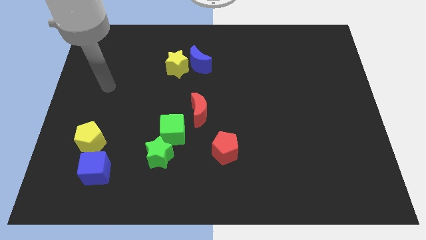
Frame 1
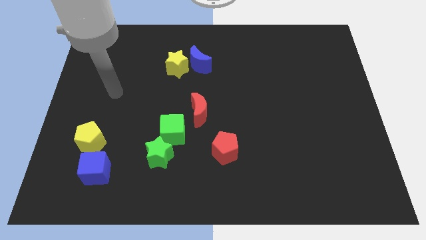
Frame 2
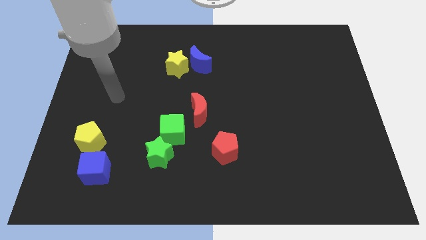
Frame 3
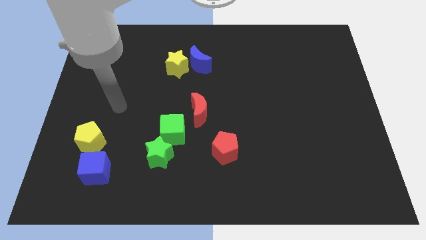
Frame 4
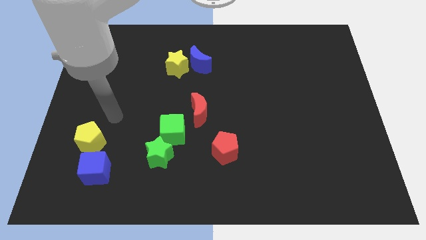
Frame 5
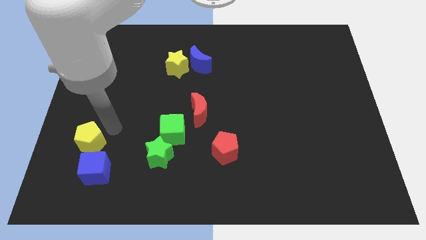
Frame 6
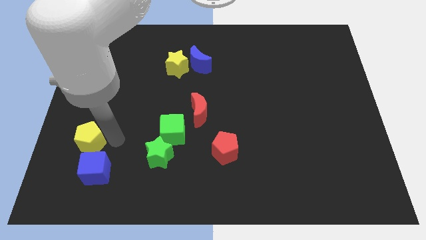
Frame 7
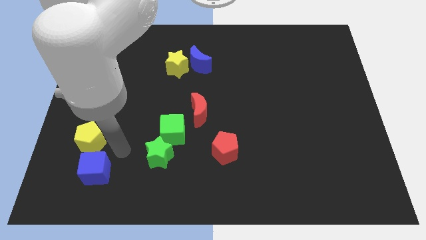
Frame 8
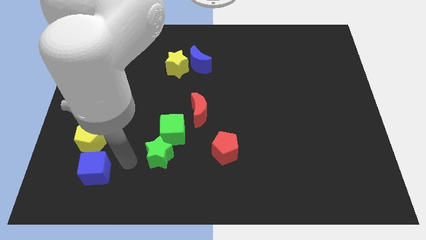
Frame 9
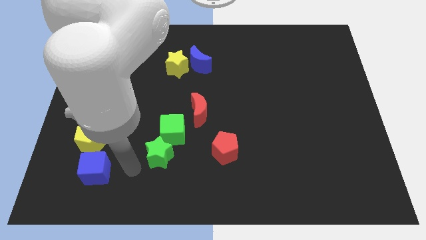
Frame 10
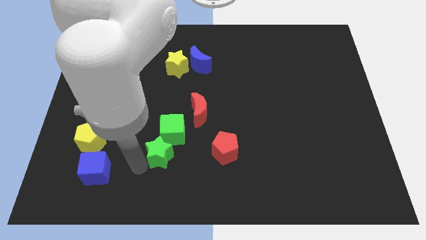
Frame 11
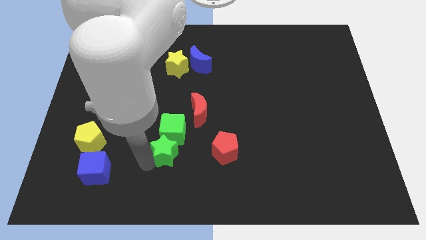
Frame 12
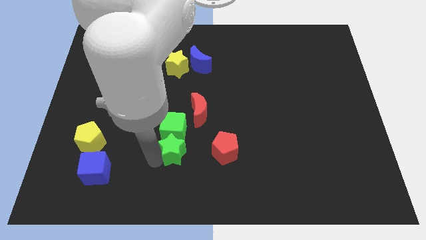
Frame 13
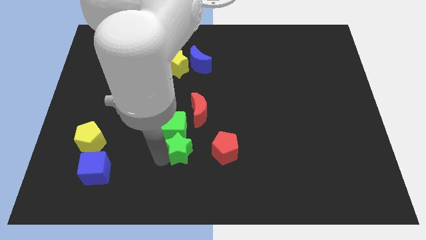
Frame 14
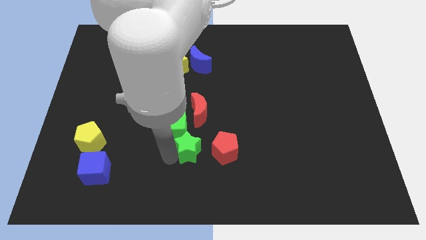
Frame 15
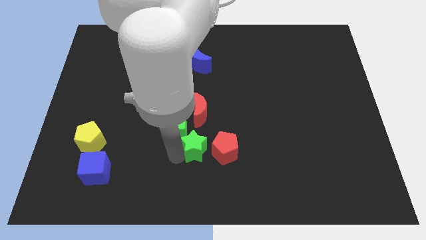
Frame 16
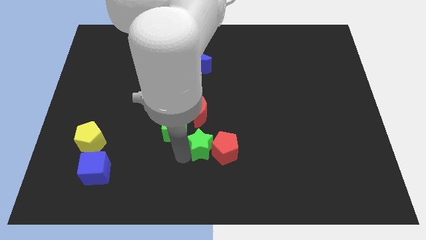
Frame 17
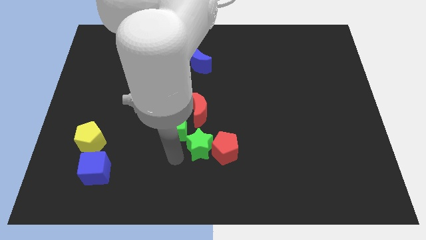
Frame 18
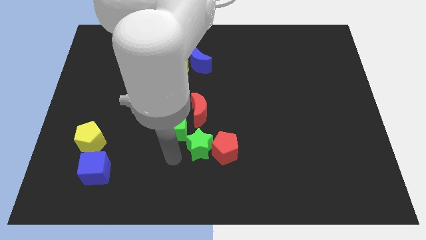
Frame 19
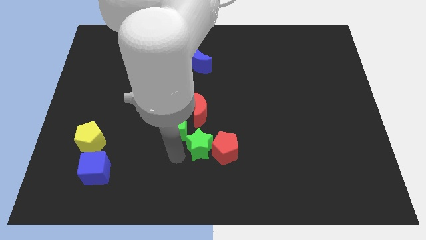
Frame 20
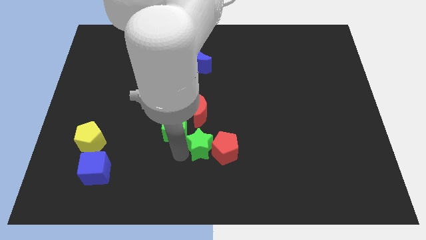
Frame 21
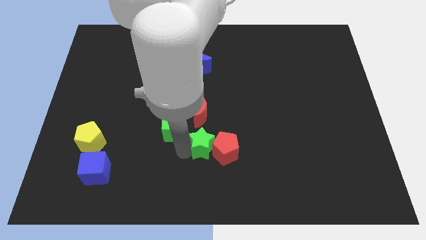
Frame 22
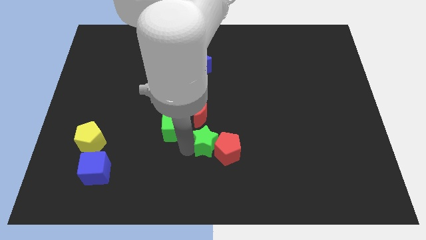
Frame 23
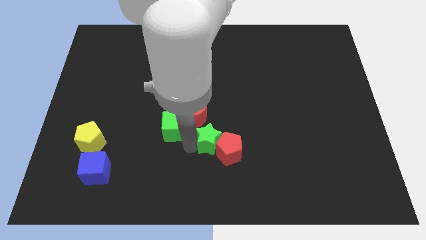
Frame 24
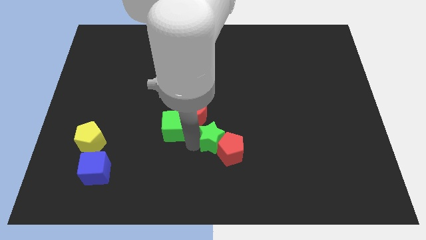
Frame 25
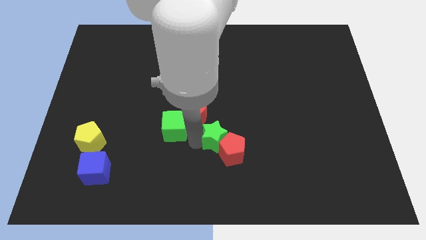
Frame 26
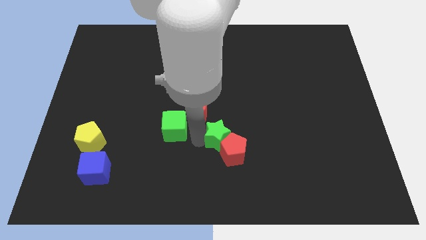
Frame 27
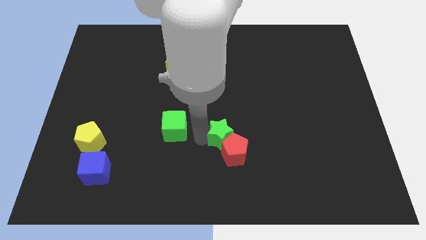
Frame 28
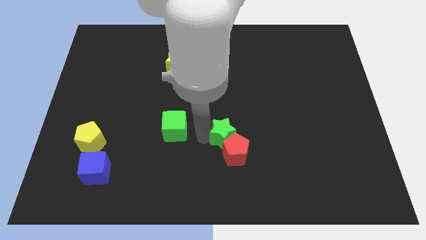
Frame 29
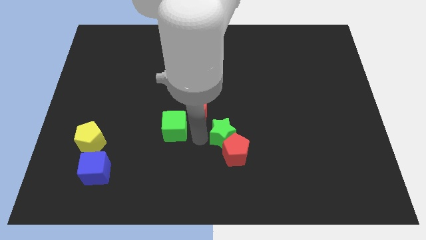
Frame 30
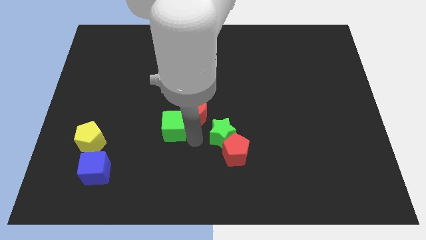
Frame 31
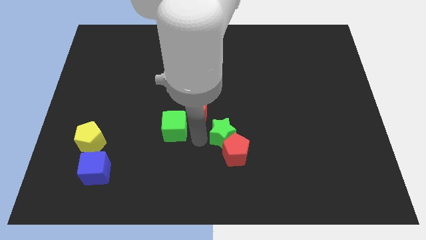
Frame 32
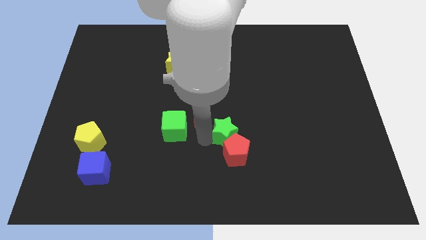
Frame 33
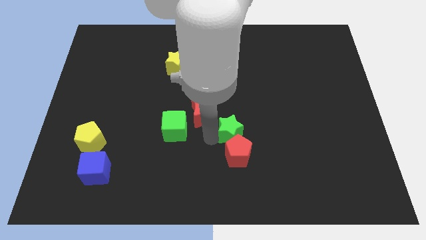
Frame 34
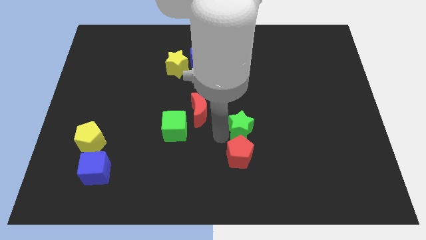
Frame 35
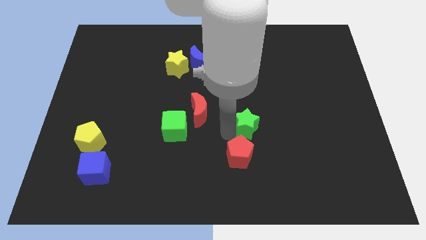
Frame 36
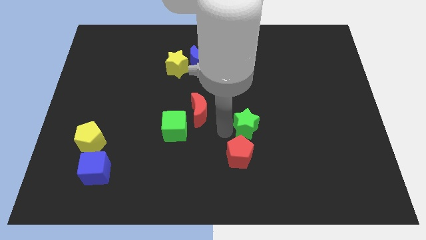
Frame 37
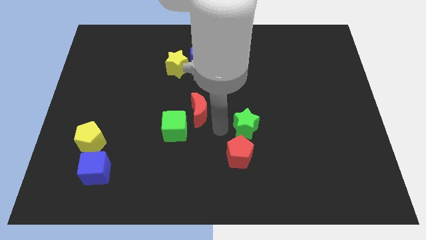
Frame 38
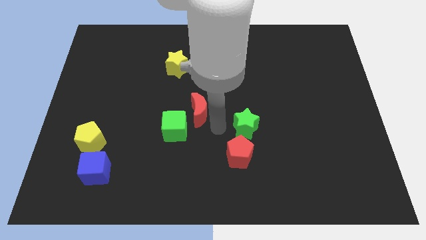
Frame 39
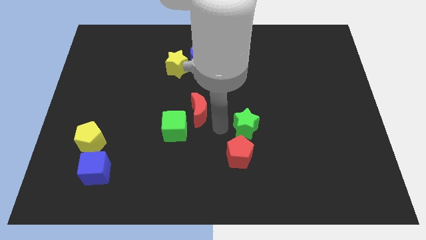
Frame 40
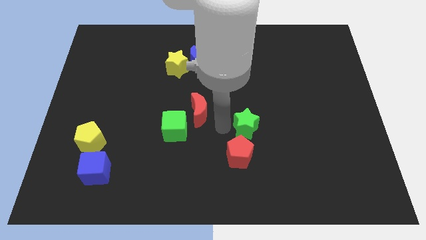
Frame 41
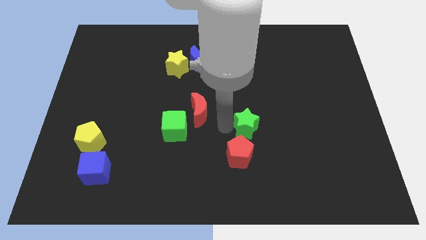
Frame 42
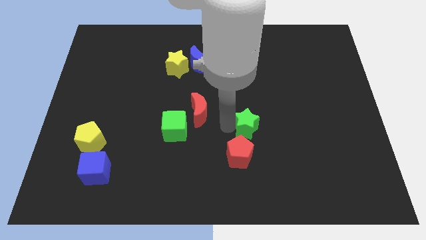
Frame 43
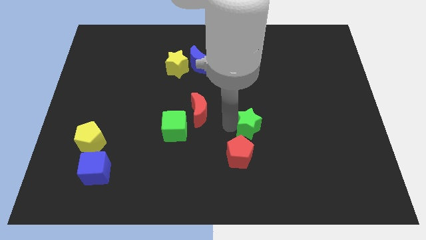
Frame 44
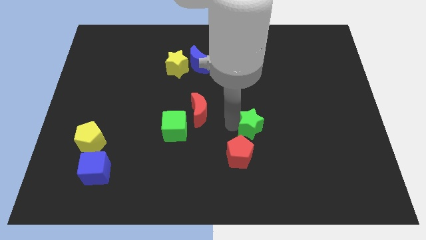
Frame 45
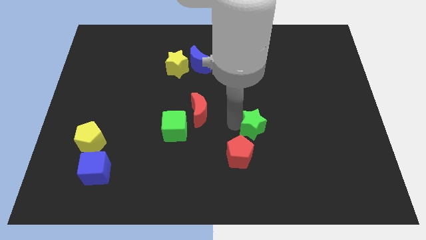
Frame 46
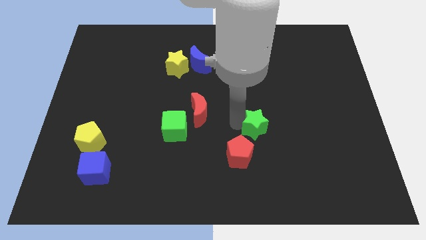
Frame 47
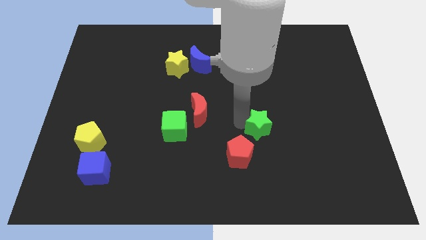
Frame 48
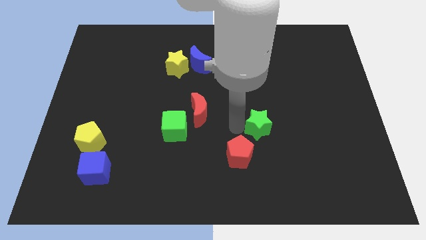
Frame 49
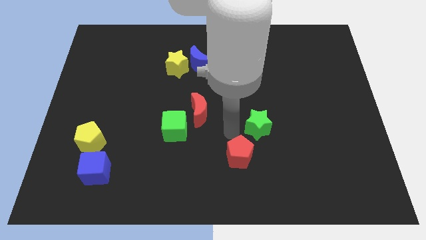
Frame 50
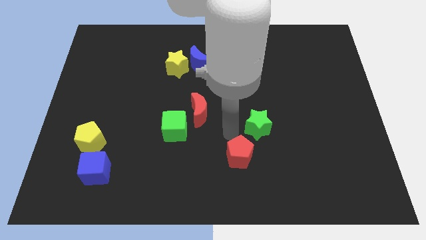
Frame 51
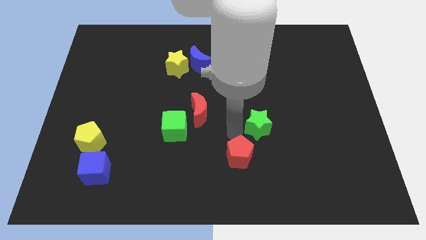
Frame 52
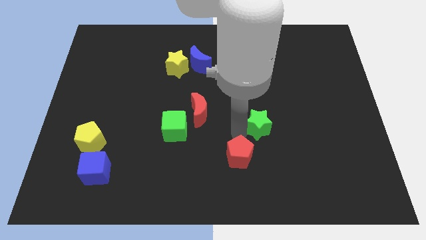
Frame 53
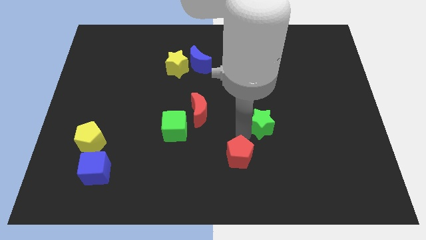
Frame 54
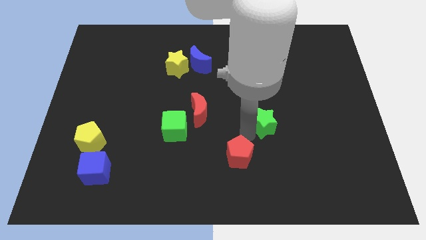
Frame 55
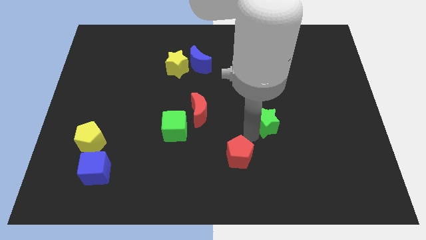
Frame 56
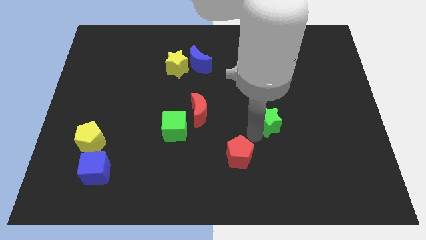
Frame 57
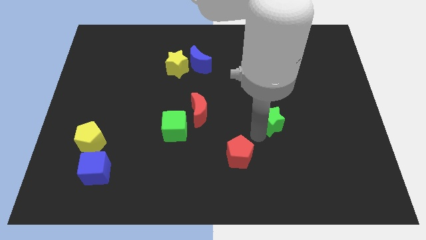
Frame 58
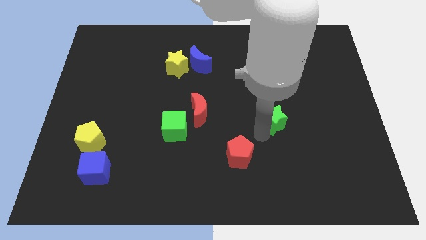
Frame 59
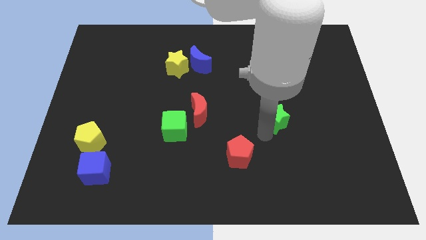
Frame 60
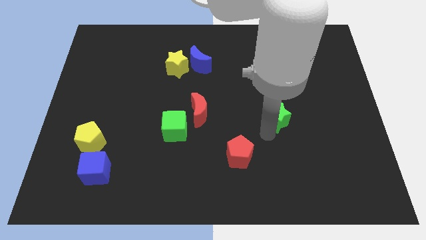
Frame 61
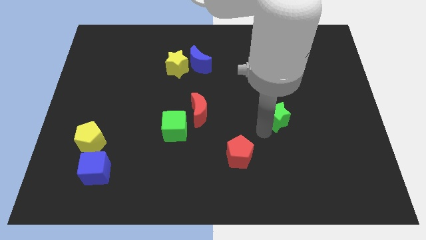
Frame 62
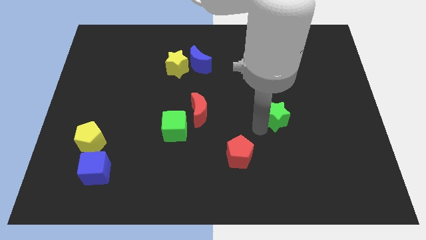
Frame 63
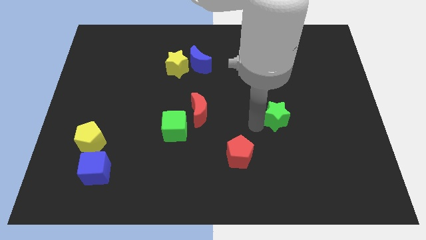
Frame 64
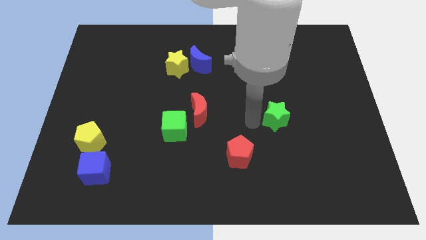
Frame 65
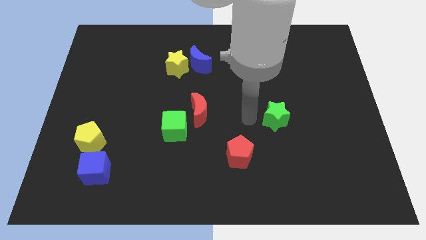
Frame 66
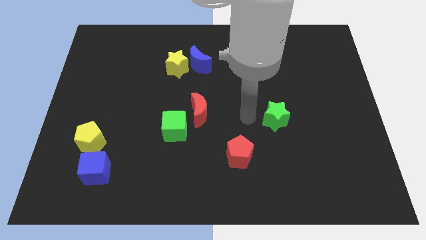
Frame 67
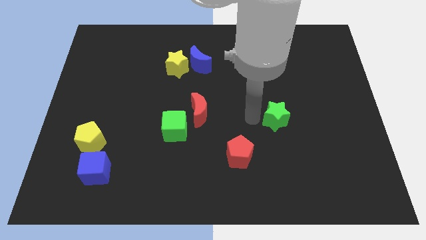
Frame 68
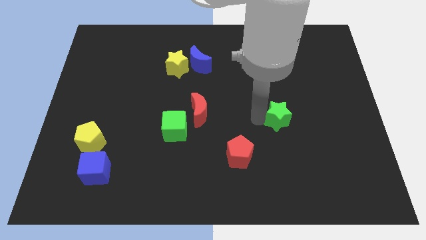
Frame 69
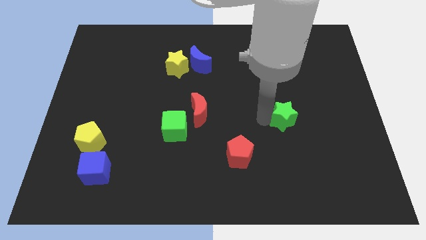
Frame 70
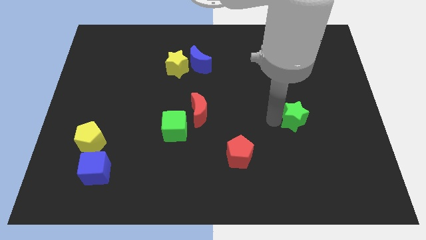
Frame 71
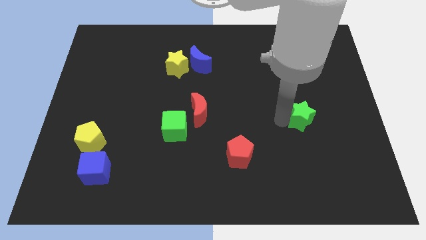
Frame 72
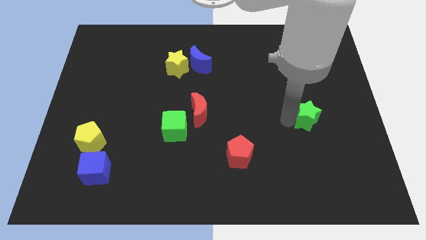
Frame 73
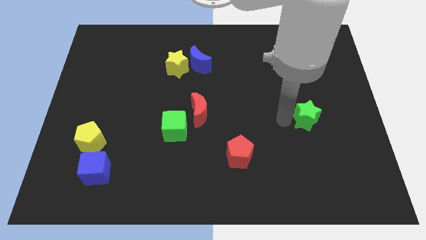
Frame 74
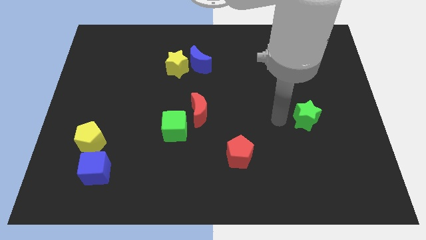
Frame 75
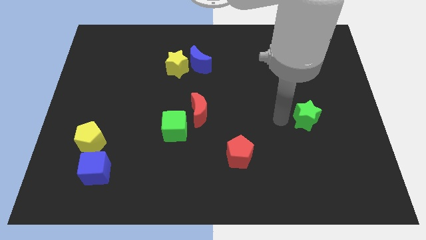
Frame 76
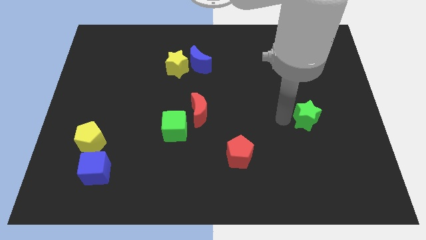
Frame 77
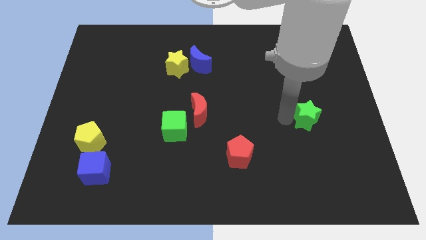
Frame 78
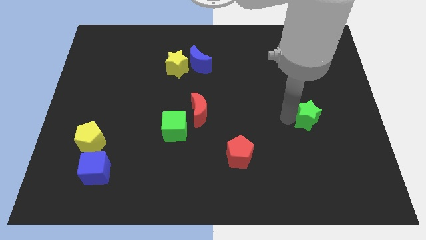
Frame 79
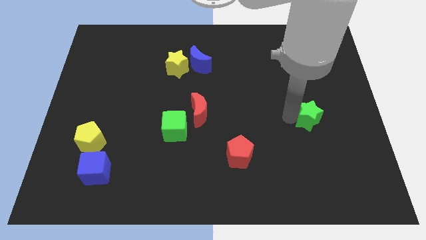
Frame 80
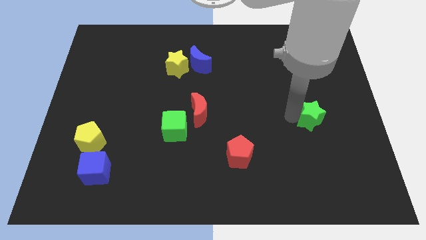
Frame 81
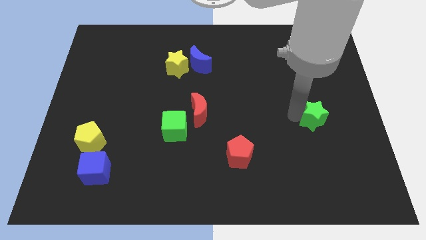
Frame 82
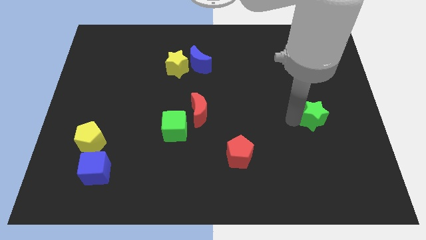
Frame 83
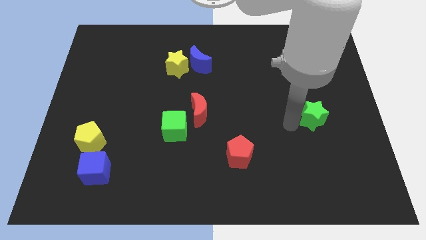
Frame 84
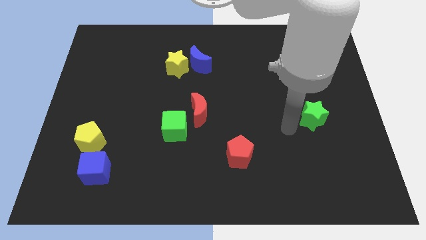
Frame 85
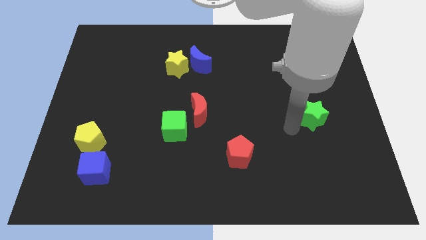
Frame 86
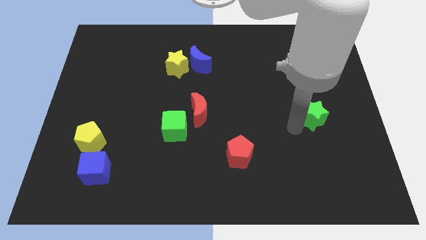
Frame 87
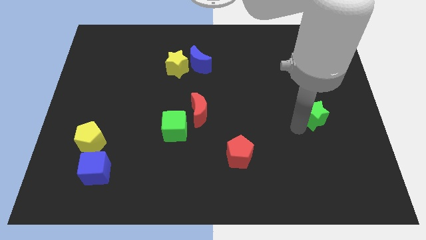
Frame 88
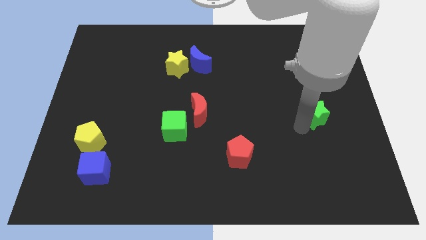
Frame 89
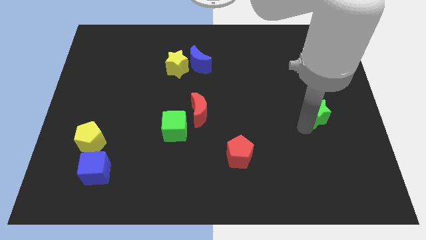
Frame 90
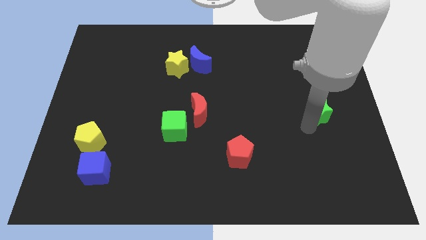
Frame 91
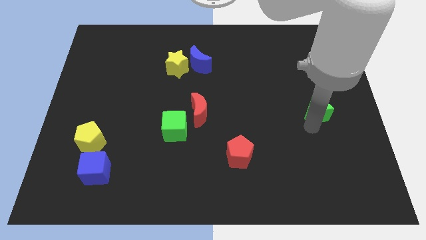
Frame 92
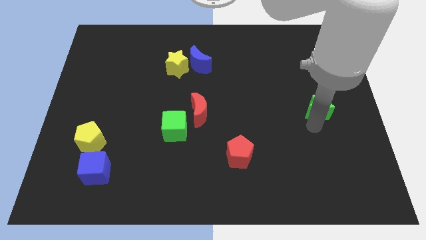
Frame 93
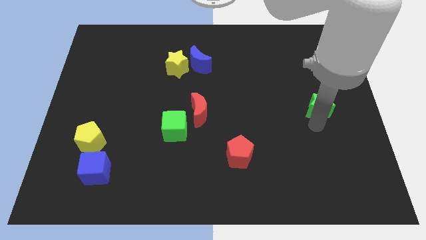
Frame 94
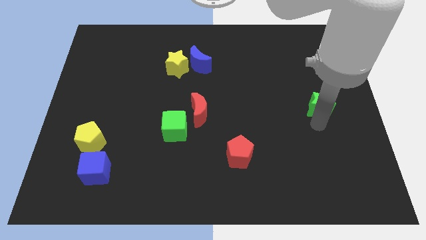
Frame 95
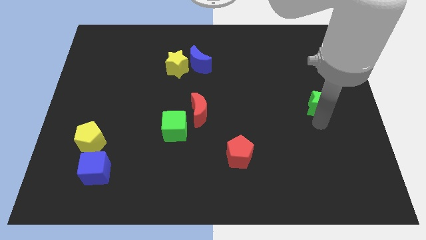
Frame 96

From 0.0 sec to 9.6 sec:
move the green star to the right side of the board
